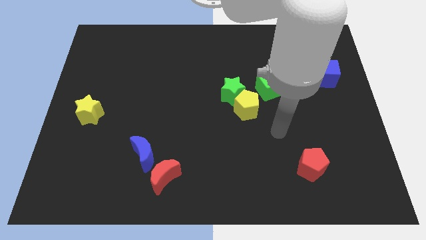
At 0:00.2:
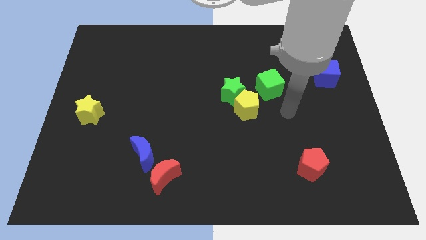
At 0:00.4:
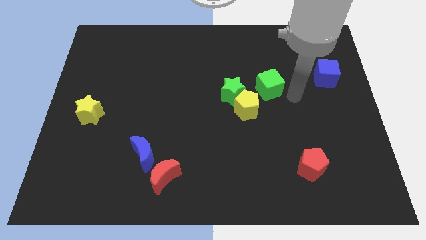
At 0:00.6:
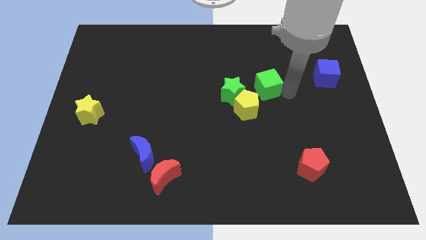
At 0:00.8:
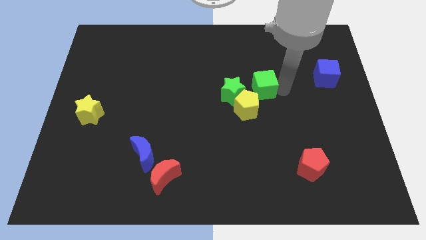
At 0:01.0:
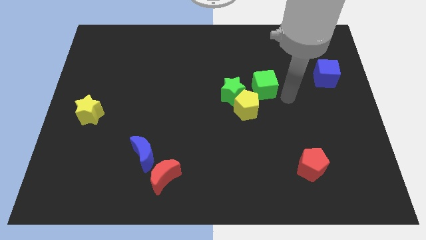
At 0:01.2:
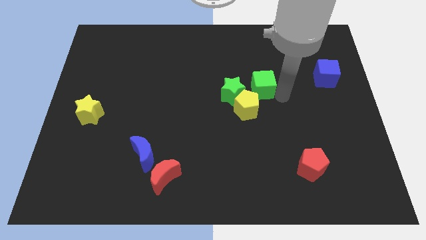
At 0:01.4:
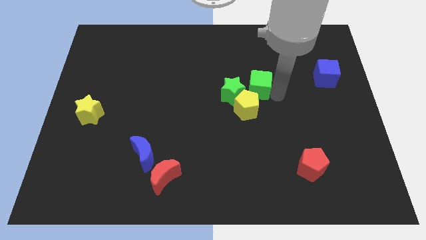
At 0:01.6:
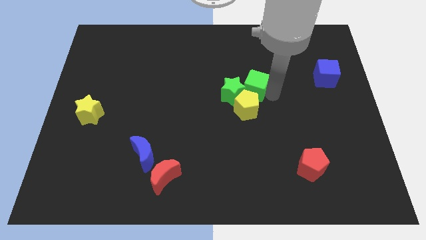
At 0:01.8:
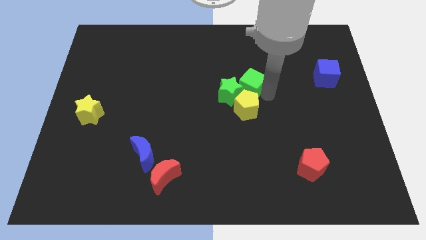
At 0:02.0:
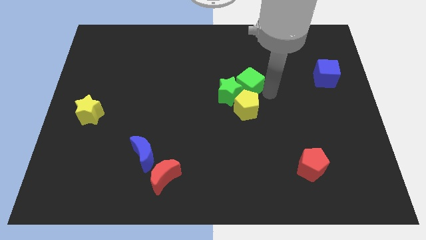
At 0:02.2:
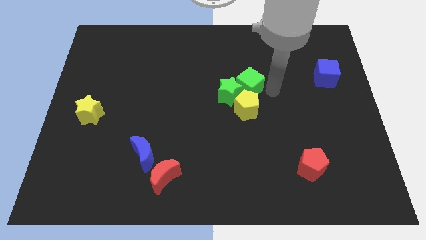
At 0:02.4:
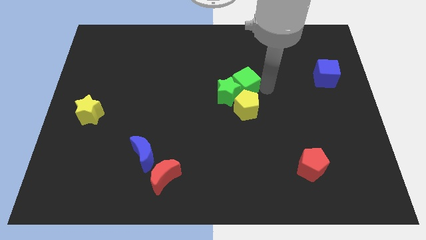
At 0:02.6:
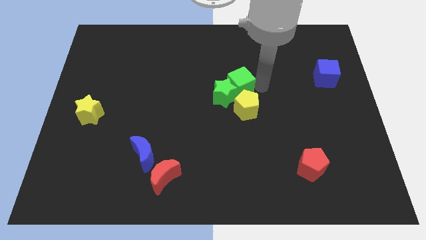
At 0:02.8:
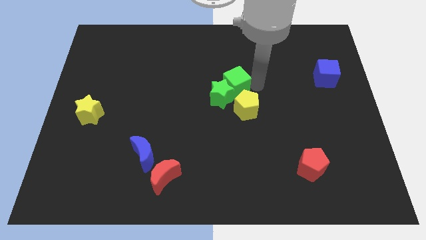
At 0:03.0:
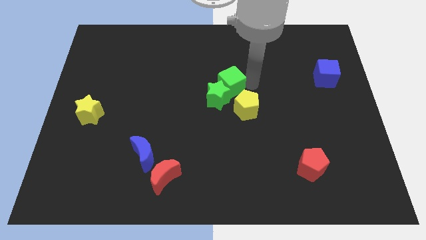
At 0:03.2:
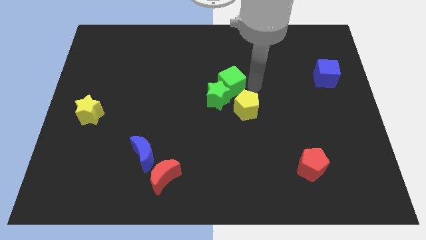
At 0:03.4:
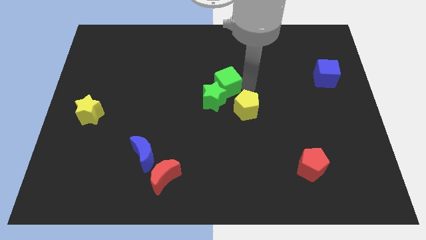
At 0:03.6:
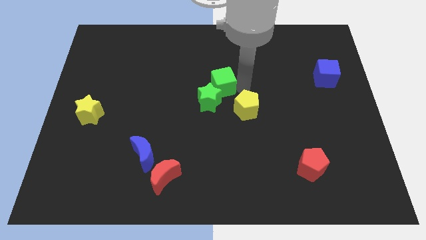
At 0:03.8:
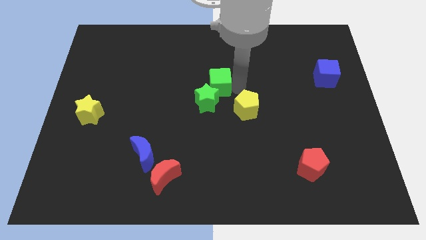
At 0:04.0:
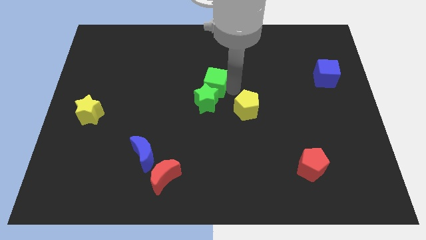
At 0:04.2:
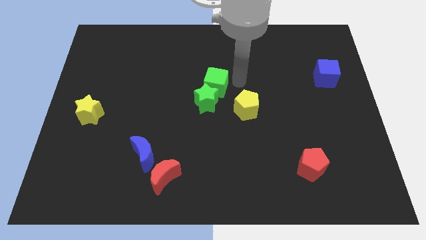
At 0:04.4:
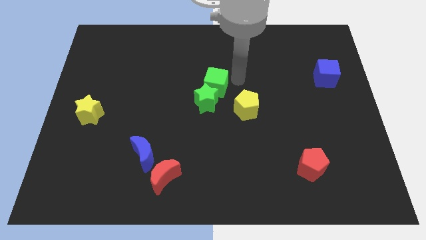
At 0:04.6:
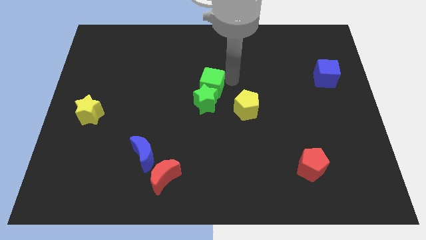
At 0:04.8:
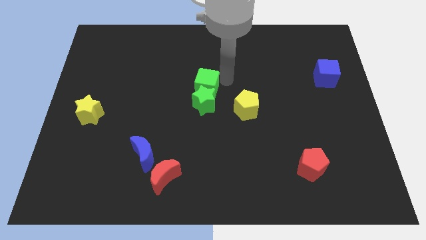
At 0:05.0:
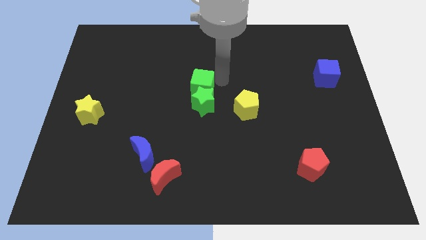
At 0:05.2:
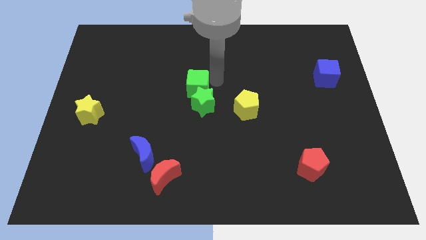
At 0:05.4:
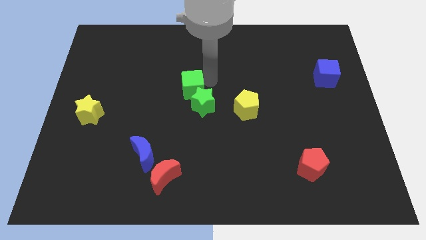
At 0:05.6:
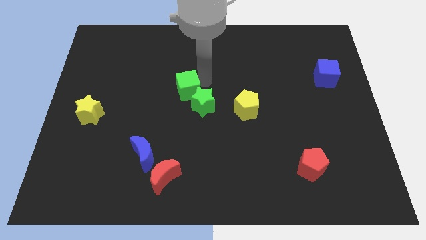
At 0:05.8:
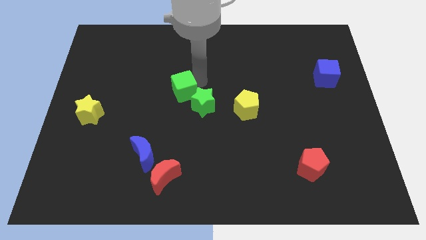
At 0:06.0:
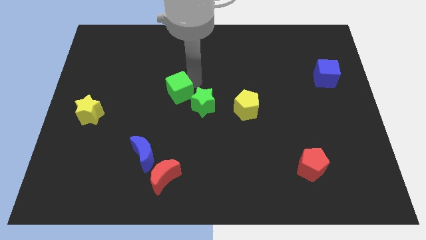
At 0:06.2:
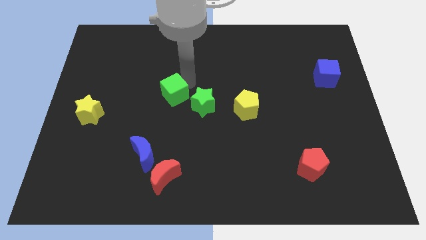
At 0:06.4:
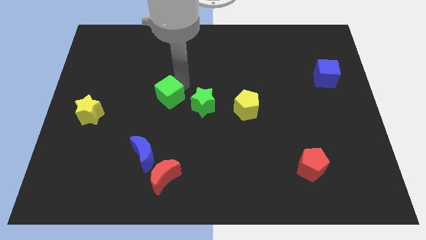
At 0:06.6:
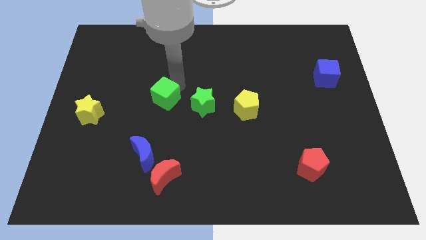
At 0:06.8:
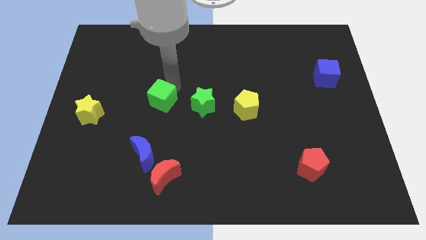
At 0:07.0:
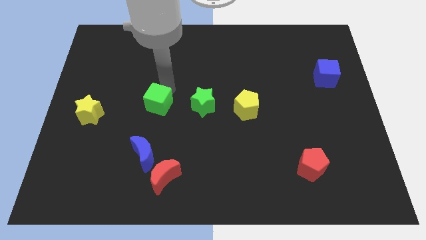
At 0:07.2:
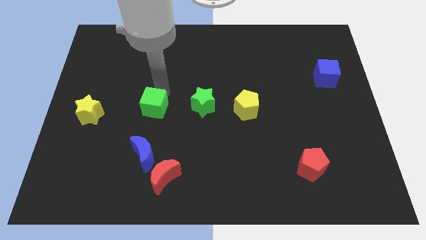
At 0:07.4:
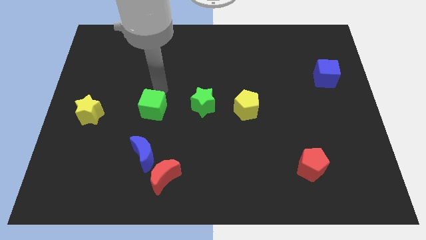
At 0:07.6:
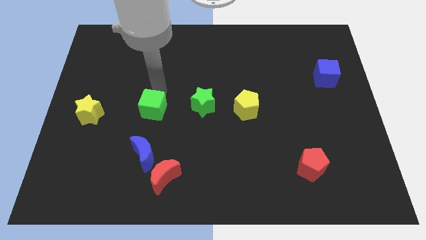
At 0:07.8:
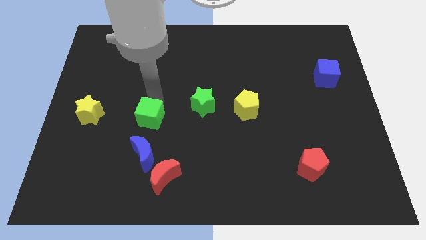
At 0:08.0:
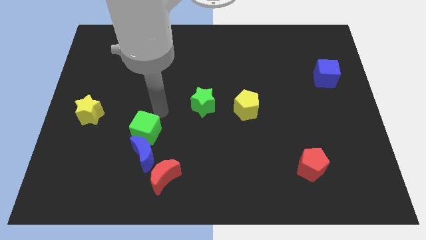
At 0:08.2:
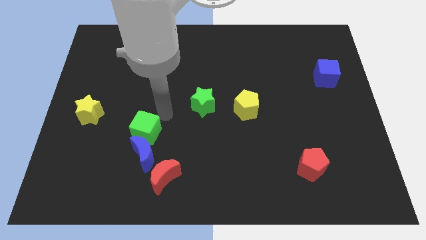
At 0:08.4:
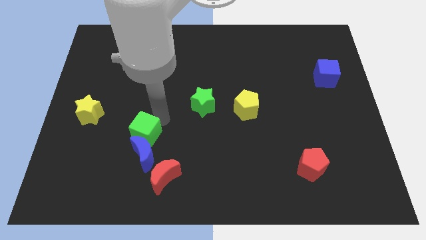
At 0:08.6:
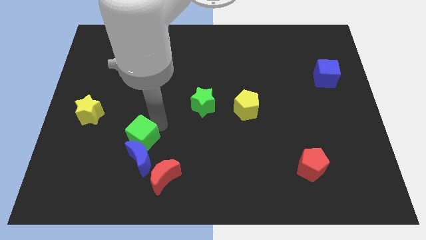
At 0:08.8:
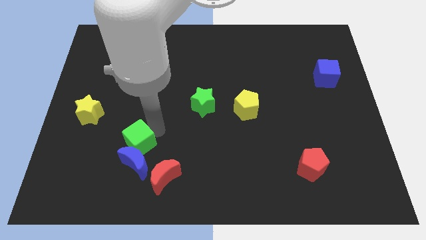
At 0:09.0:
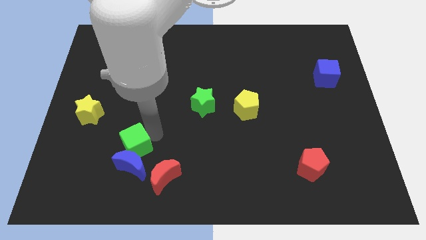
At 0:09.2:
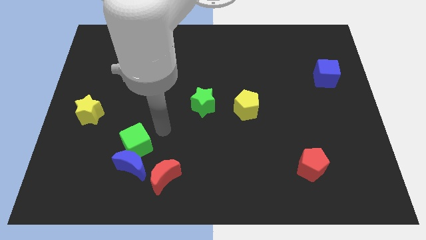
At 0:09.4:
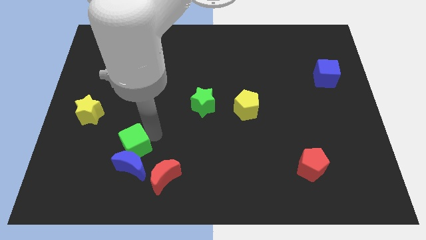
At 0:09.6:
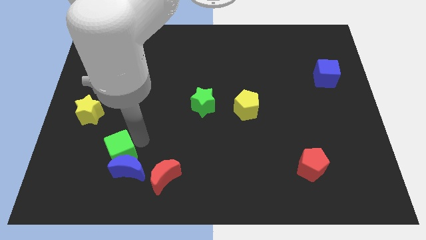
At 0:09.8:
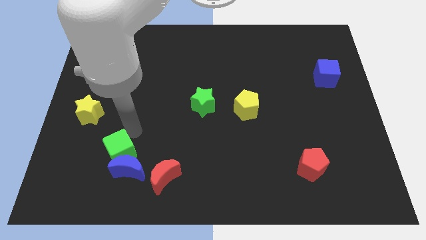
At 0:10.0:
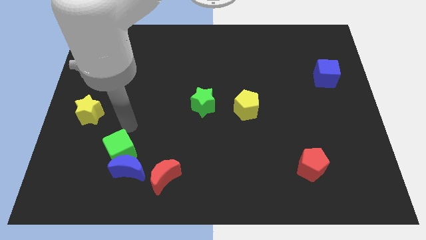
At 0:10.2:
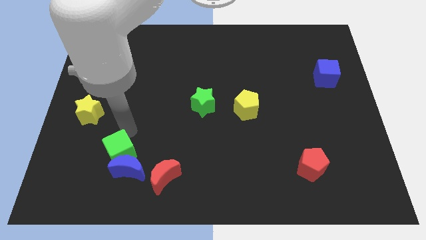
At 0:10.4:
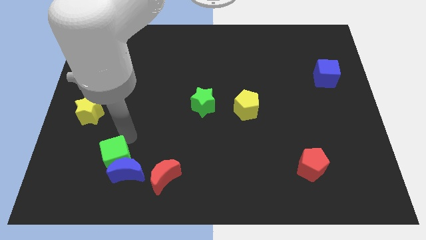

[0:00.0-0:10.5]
slide the green cube left of the red moon

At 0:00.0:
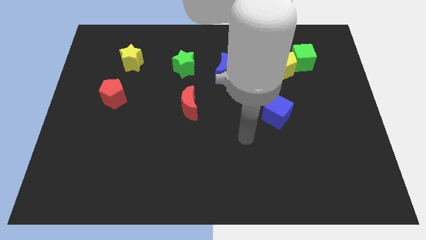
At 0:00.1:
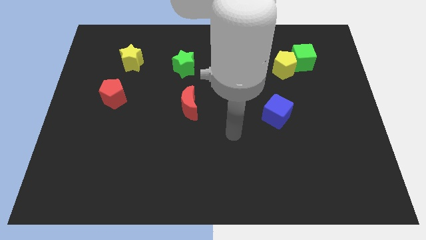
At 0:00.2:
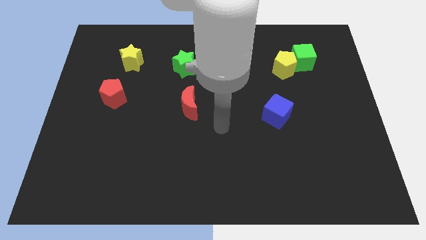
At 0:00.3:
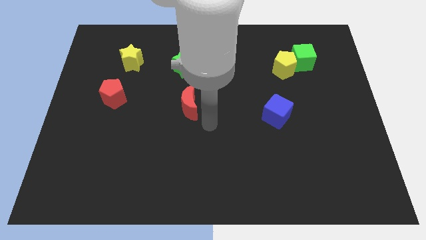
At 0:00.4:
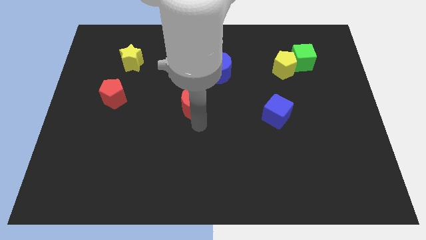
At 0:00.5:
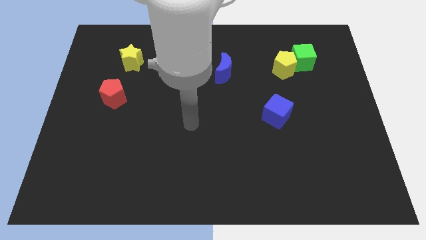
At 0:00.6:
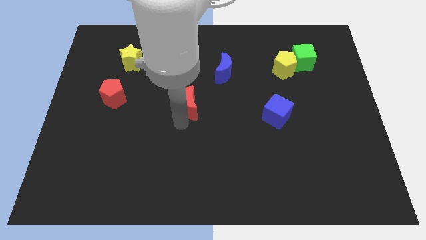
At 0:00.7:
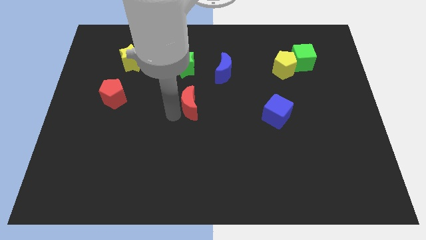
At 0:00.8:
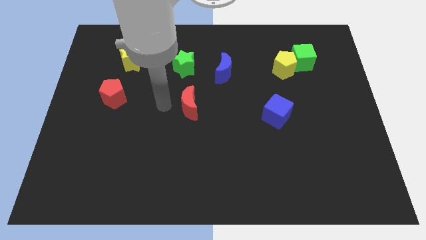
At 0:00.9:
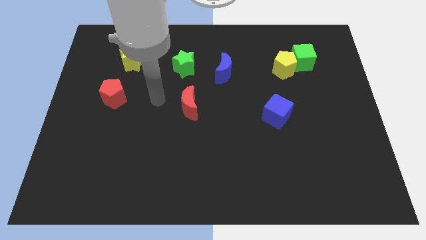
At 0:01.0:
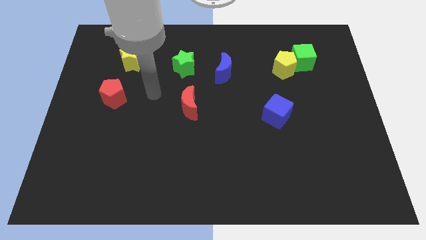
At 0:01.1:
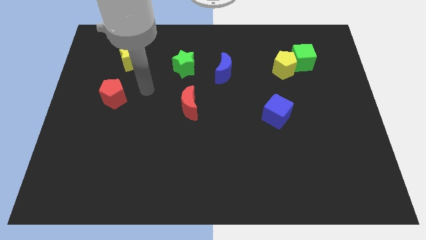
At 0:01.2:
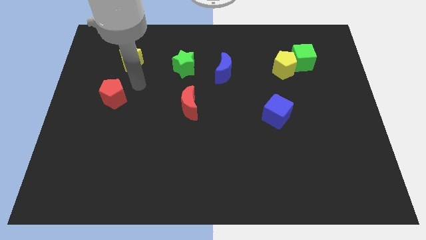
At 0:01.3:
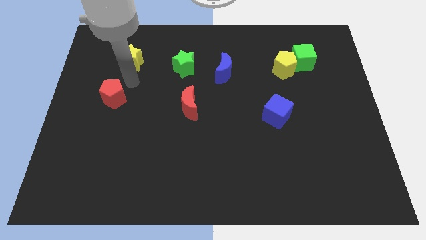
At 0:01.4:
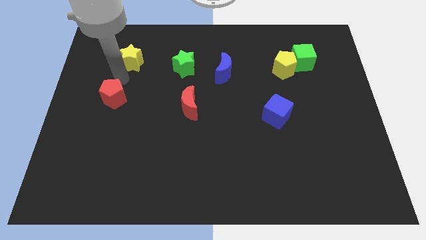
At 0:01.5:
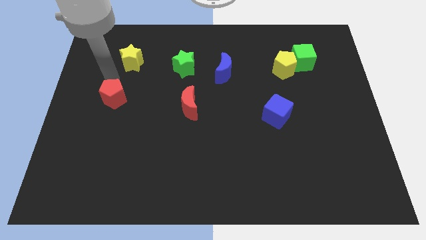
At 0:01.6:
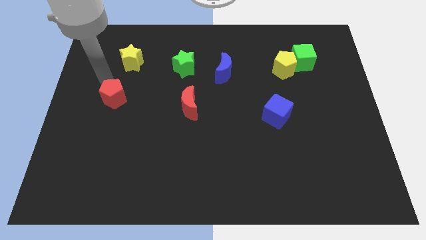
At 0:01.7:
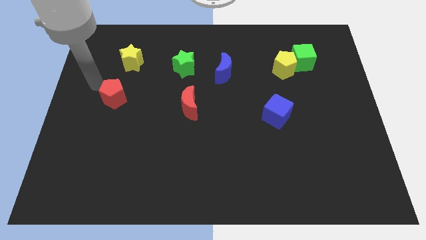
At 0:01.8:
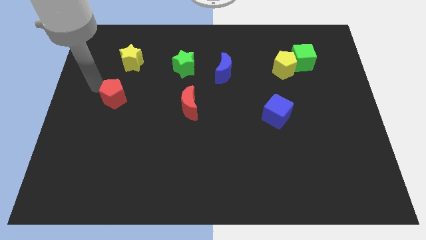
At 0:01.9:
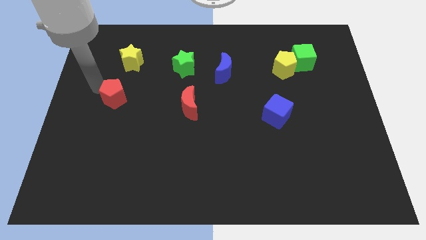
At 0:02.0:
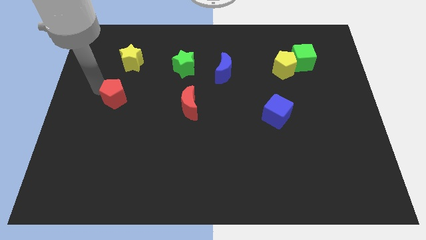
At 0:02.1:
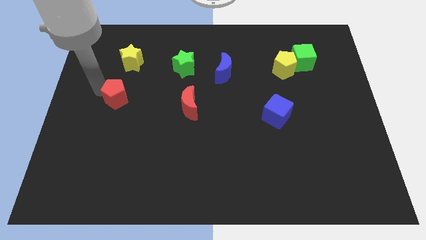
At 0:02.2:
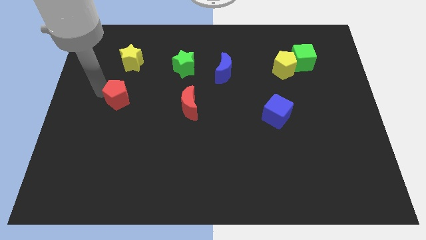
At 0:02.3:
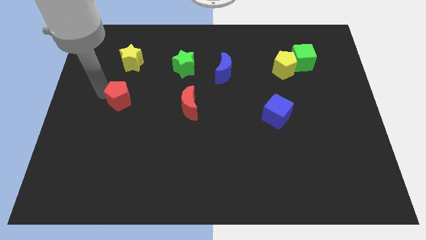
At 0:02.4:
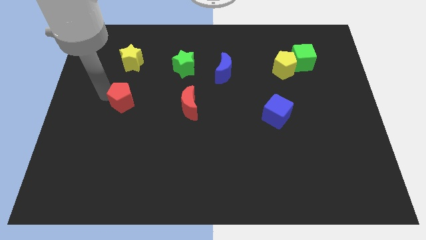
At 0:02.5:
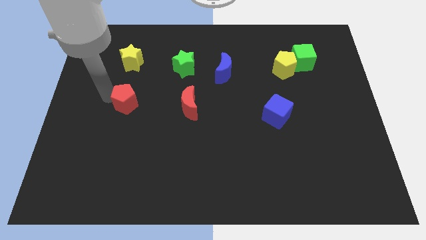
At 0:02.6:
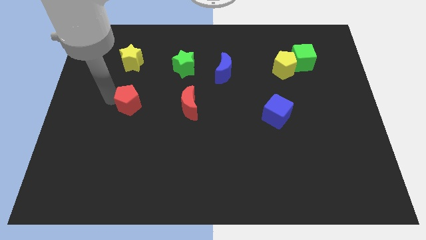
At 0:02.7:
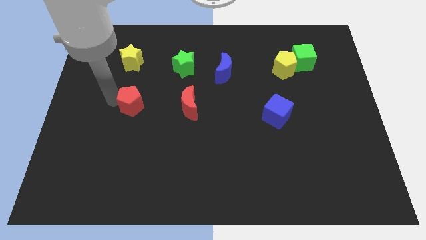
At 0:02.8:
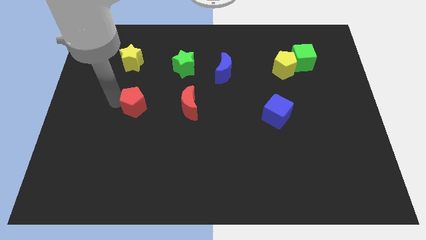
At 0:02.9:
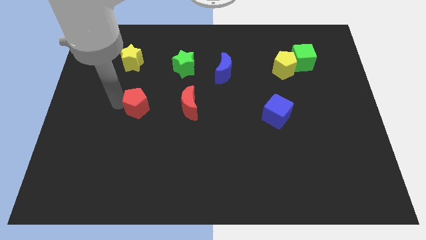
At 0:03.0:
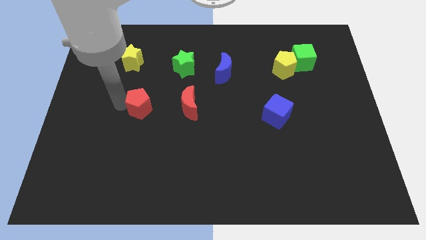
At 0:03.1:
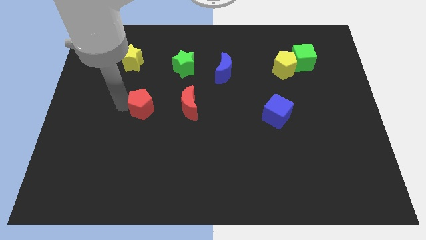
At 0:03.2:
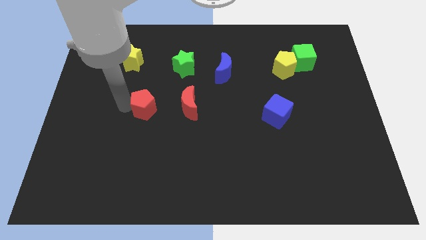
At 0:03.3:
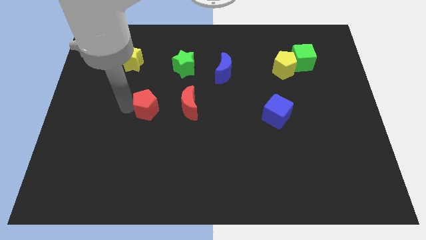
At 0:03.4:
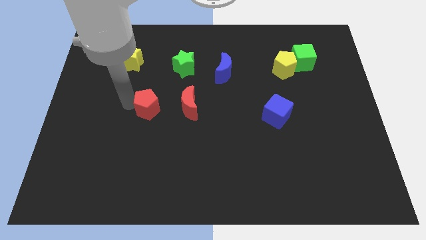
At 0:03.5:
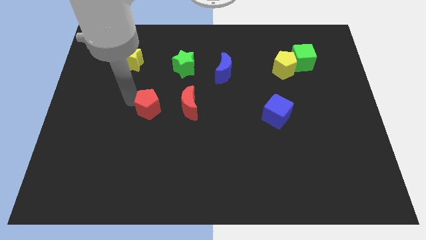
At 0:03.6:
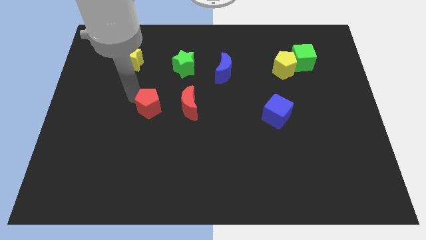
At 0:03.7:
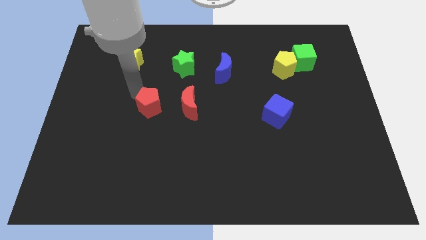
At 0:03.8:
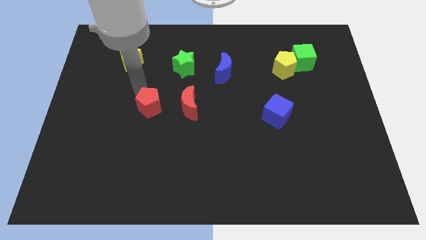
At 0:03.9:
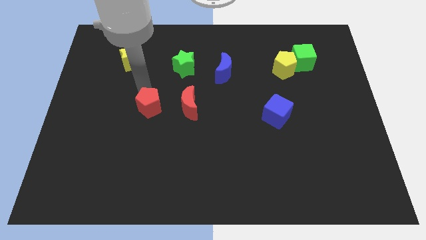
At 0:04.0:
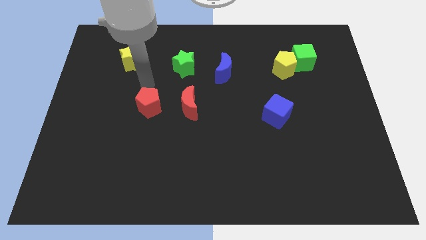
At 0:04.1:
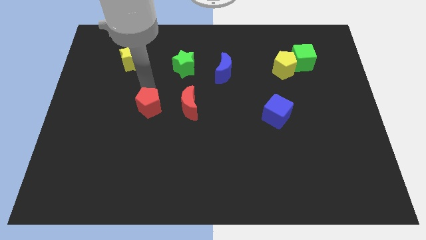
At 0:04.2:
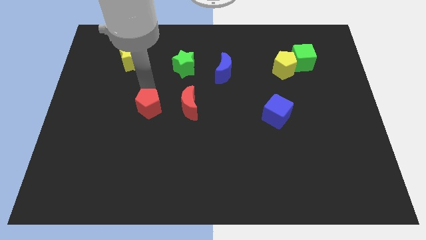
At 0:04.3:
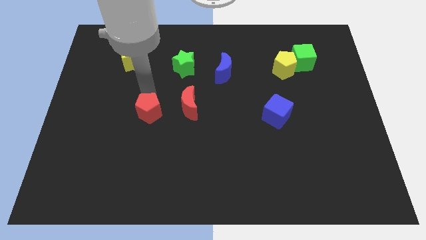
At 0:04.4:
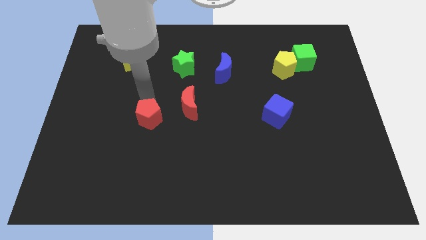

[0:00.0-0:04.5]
push the red pentagon to the bottom left side of the red moon
